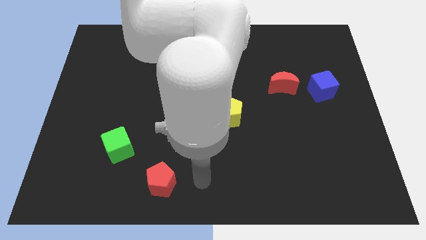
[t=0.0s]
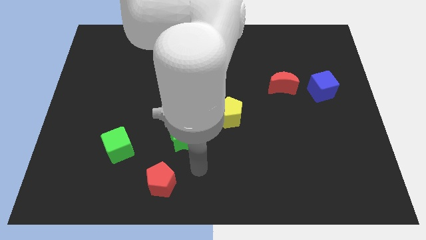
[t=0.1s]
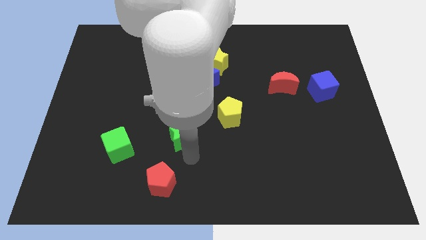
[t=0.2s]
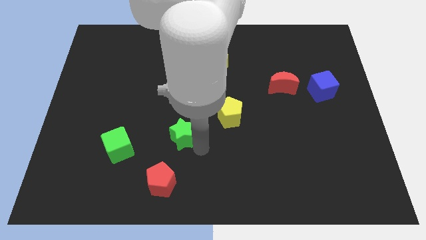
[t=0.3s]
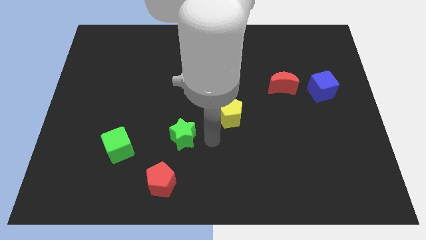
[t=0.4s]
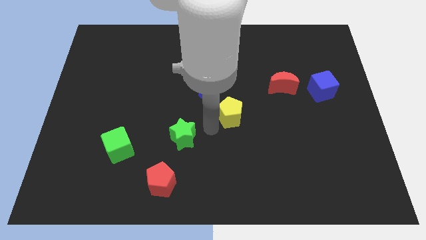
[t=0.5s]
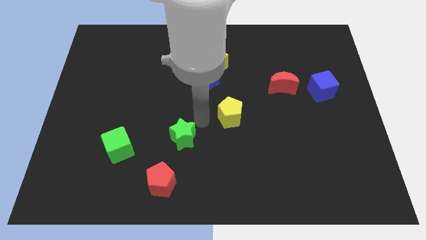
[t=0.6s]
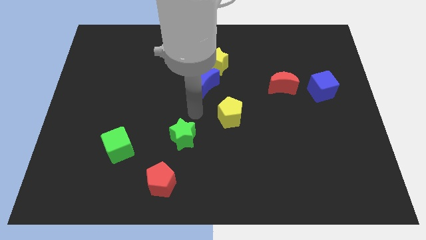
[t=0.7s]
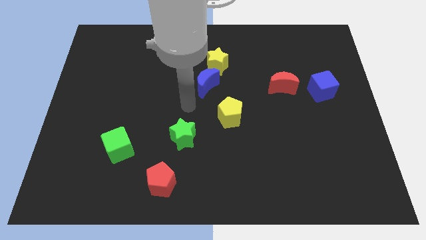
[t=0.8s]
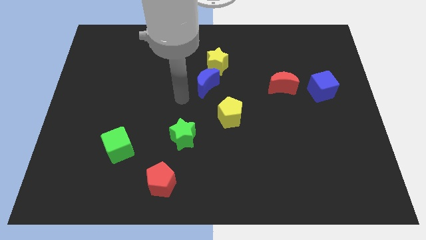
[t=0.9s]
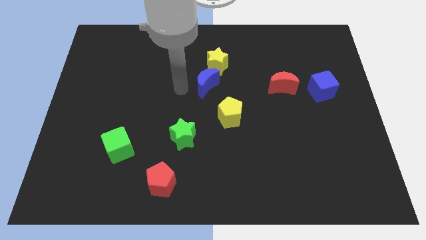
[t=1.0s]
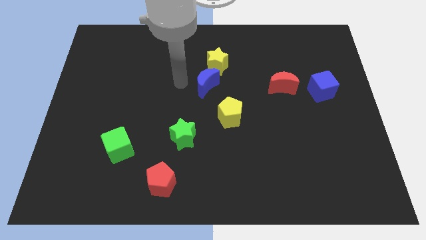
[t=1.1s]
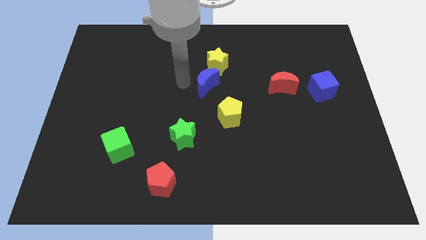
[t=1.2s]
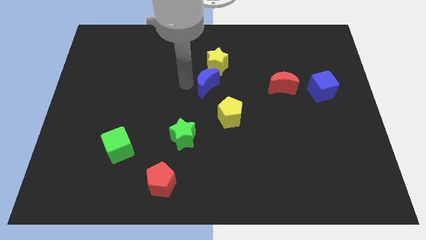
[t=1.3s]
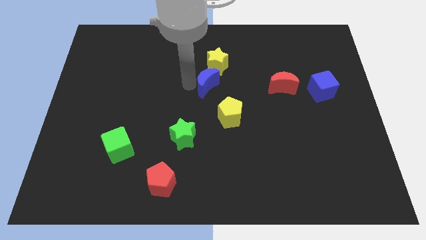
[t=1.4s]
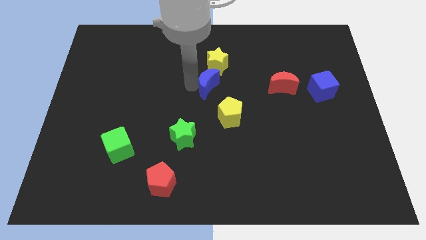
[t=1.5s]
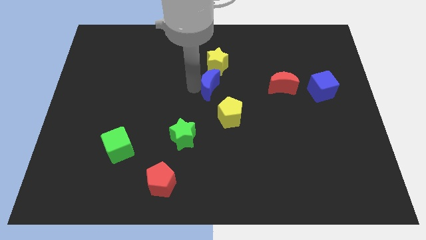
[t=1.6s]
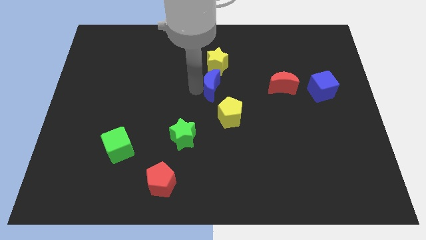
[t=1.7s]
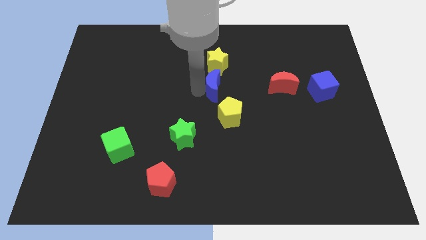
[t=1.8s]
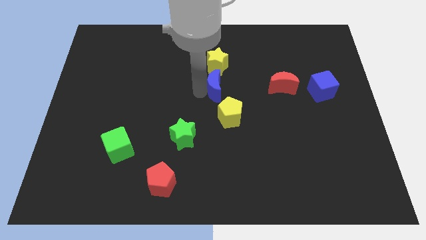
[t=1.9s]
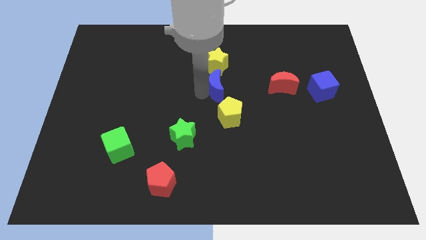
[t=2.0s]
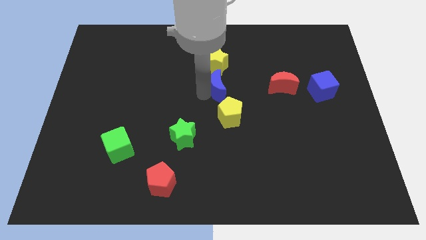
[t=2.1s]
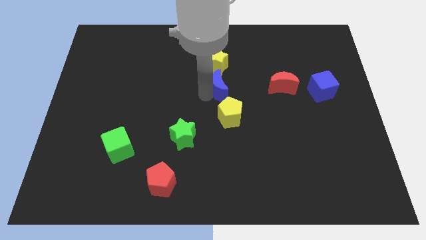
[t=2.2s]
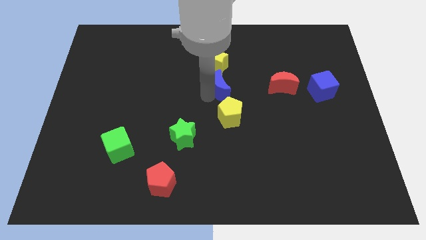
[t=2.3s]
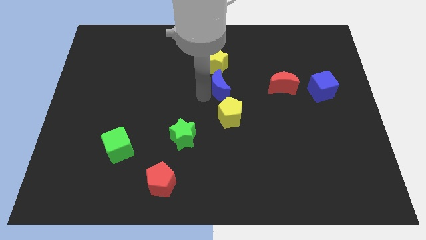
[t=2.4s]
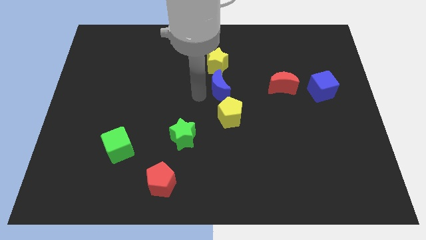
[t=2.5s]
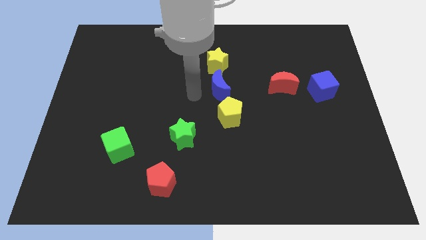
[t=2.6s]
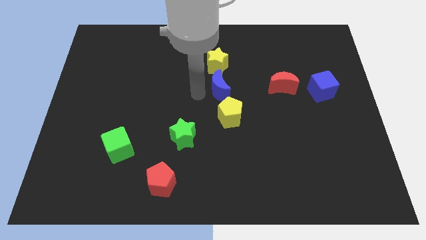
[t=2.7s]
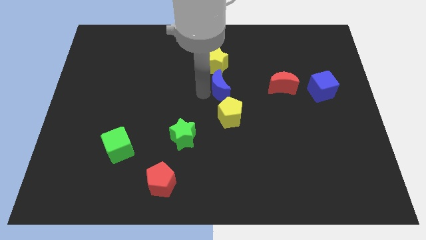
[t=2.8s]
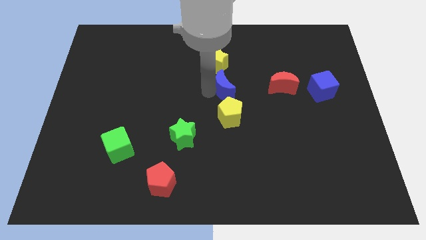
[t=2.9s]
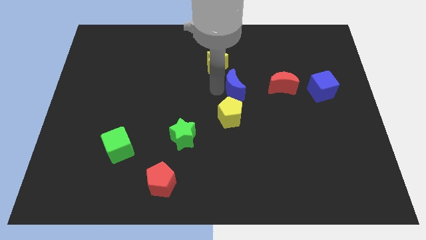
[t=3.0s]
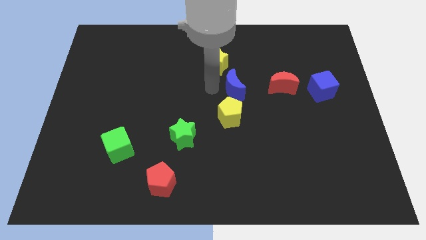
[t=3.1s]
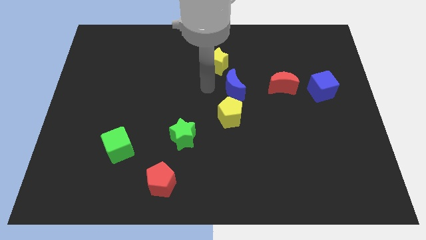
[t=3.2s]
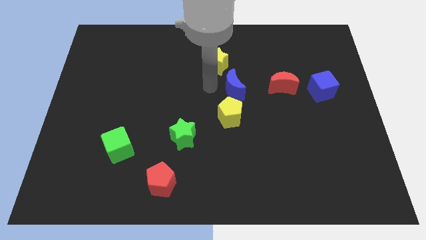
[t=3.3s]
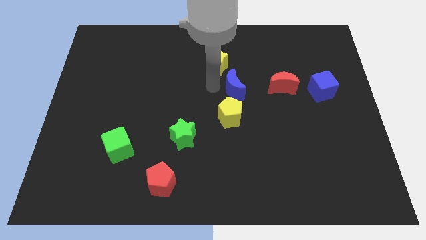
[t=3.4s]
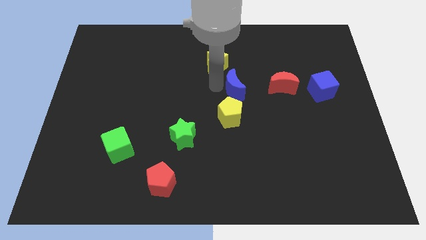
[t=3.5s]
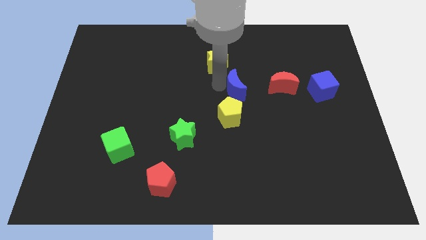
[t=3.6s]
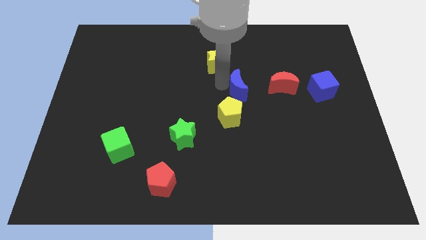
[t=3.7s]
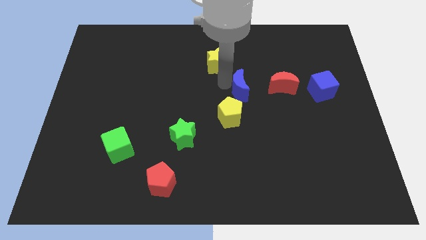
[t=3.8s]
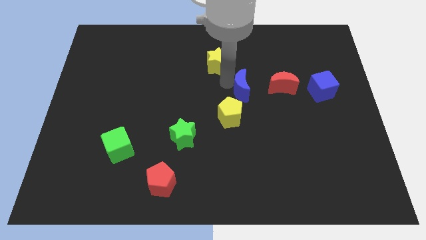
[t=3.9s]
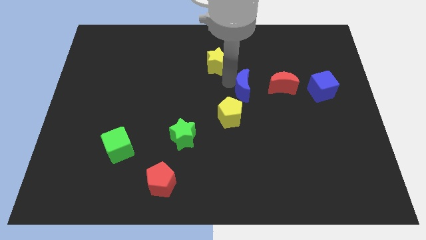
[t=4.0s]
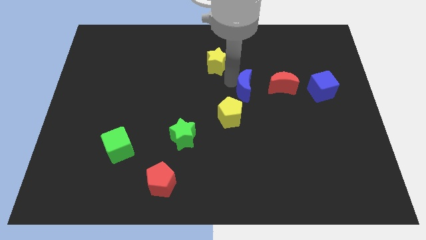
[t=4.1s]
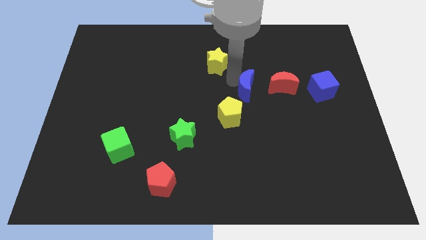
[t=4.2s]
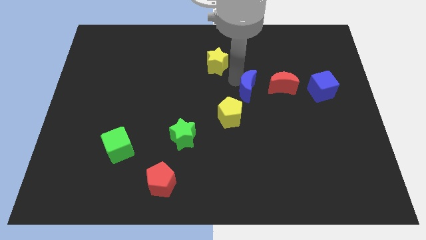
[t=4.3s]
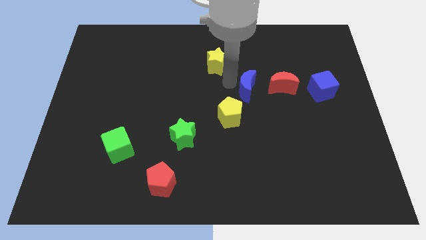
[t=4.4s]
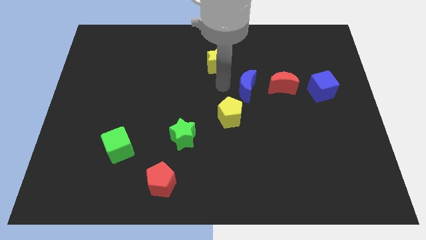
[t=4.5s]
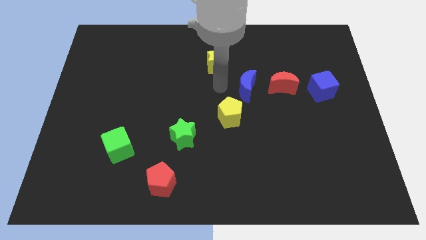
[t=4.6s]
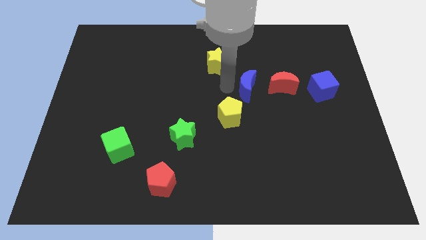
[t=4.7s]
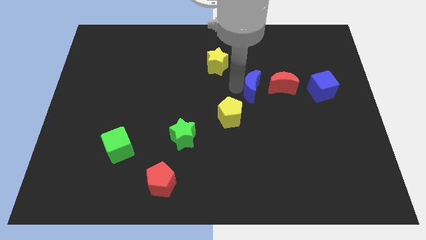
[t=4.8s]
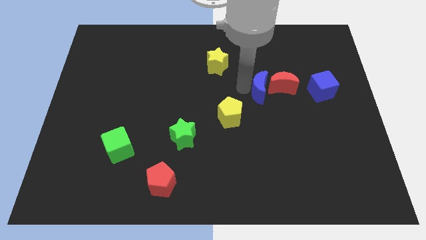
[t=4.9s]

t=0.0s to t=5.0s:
slide the blue moon to the left side of the blue cube

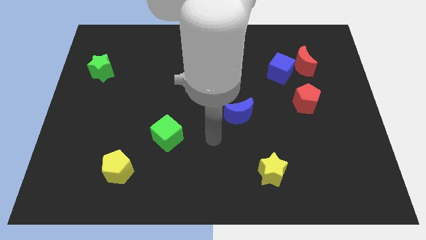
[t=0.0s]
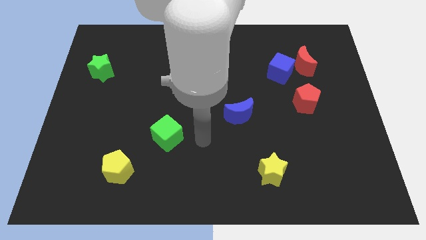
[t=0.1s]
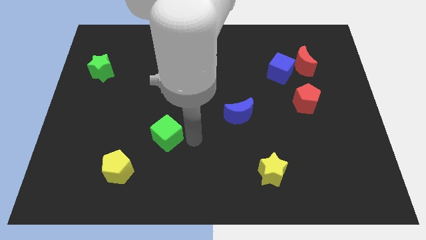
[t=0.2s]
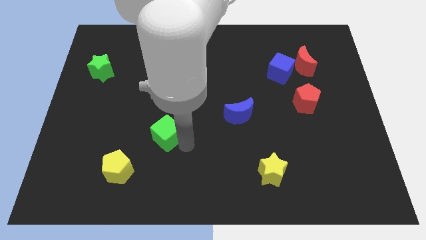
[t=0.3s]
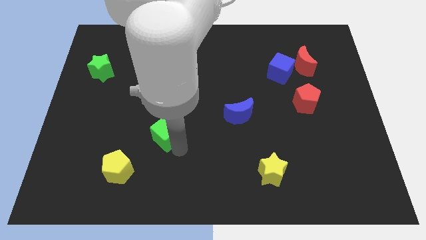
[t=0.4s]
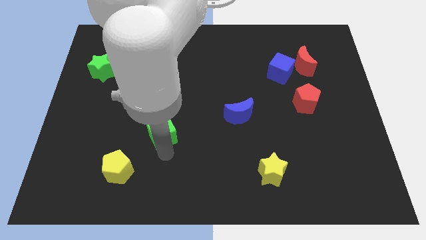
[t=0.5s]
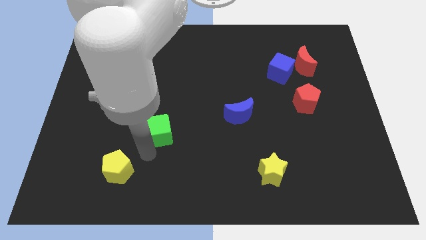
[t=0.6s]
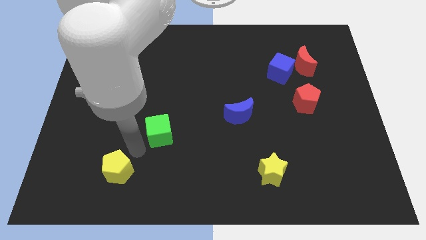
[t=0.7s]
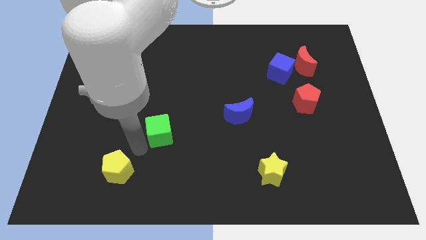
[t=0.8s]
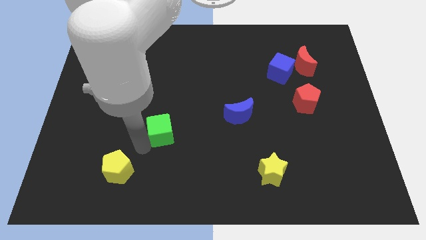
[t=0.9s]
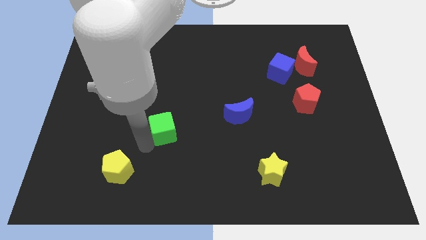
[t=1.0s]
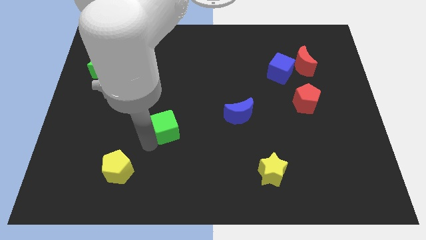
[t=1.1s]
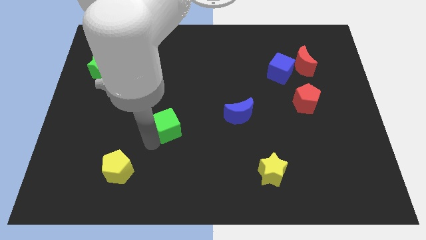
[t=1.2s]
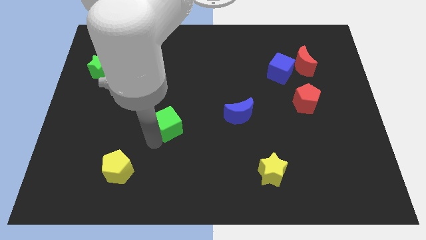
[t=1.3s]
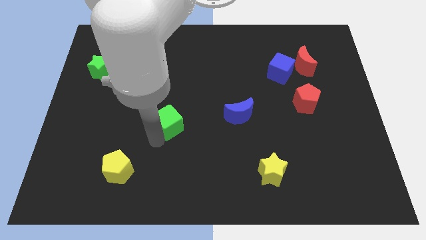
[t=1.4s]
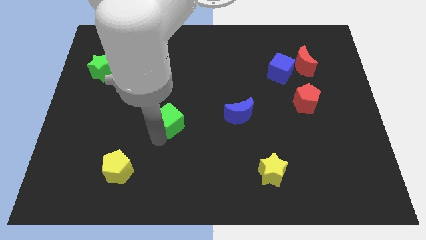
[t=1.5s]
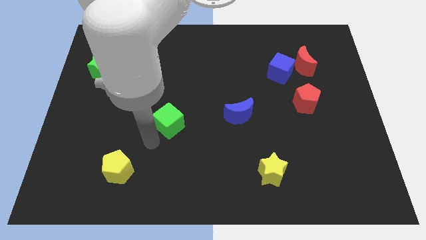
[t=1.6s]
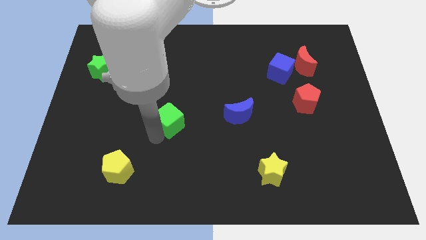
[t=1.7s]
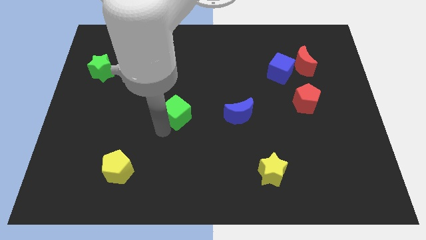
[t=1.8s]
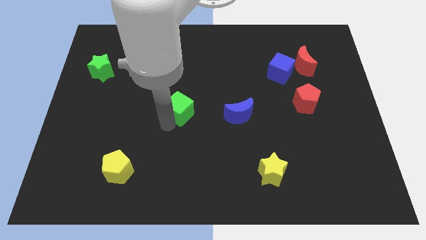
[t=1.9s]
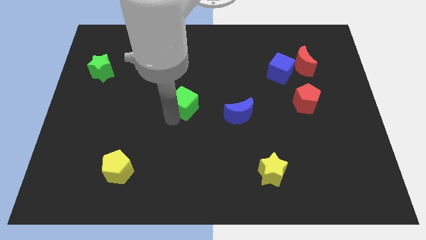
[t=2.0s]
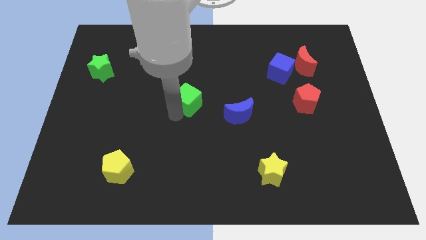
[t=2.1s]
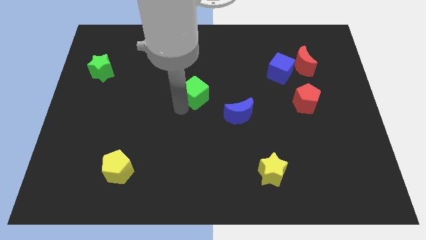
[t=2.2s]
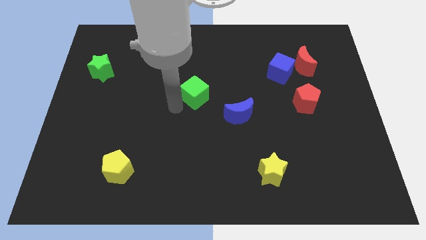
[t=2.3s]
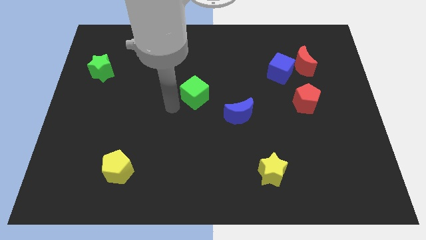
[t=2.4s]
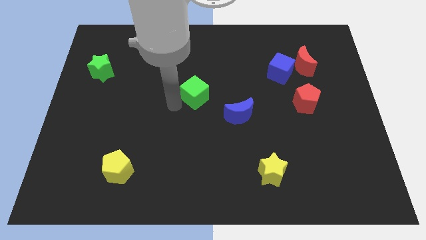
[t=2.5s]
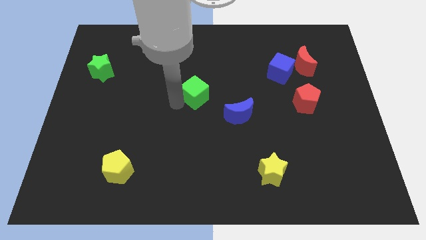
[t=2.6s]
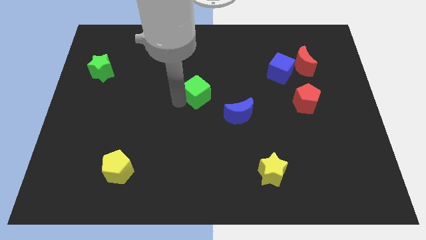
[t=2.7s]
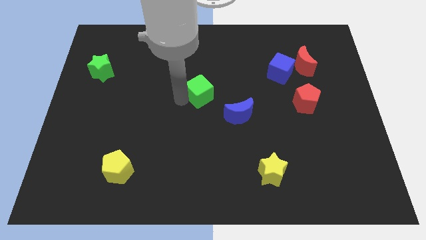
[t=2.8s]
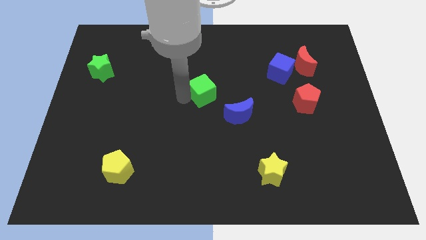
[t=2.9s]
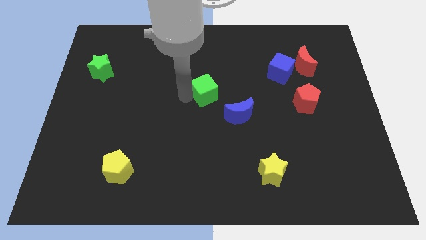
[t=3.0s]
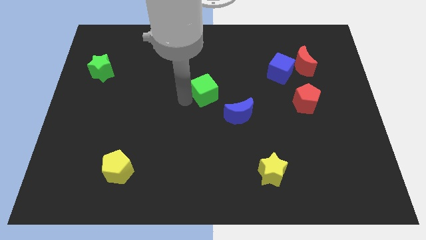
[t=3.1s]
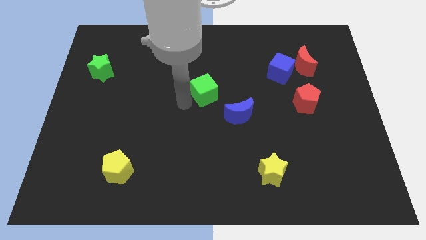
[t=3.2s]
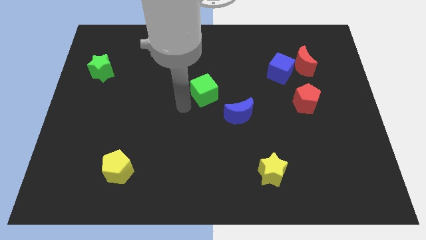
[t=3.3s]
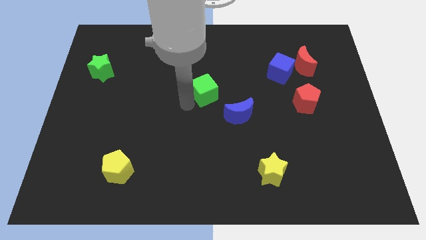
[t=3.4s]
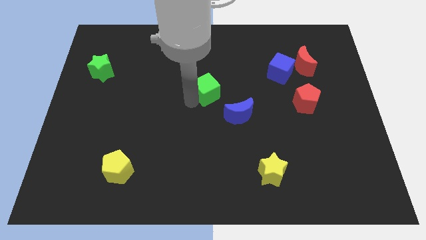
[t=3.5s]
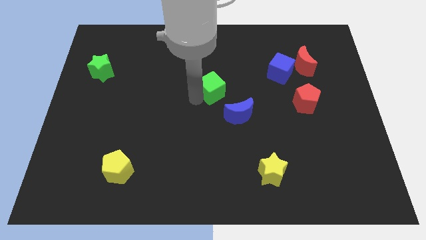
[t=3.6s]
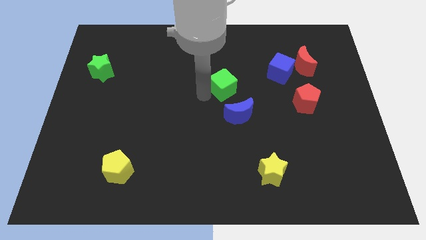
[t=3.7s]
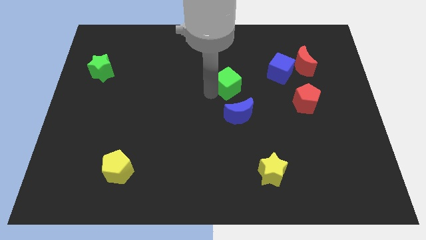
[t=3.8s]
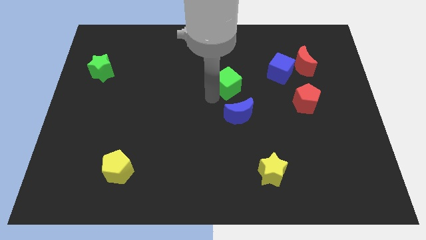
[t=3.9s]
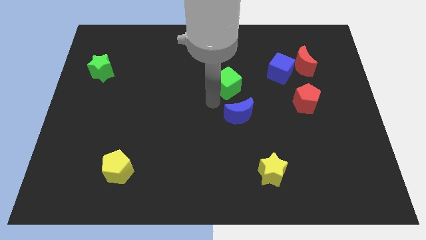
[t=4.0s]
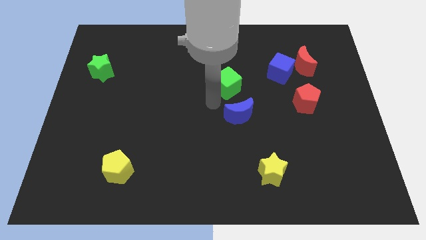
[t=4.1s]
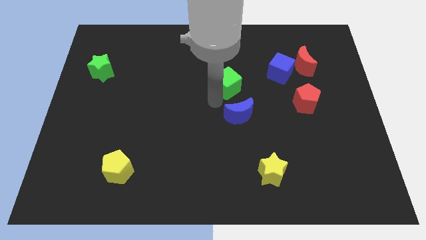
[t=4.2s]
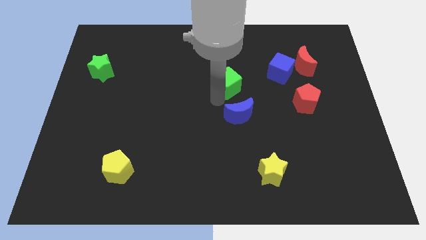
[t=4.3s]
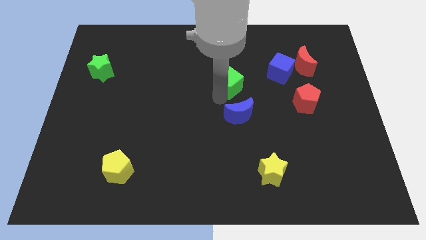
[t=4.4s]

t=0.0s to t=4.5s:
slide the green cube to the left of the blue cube
